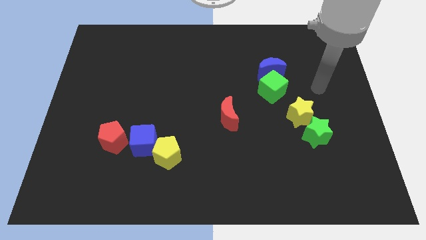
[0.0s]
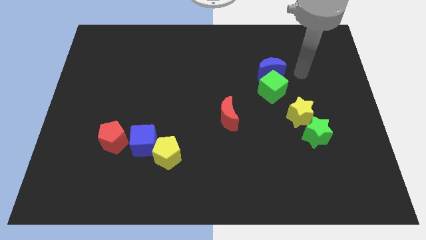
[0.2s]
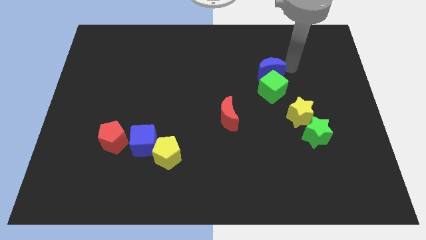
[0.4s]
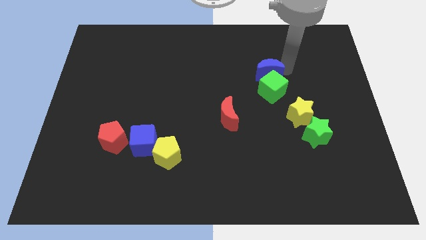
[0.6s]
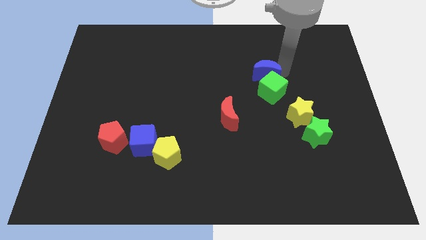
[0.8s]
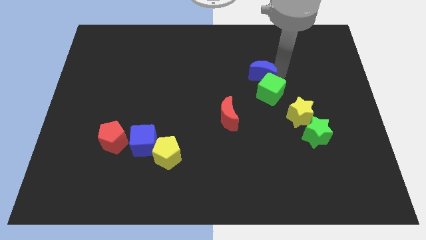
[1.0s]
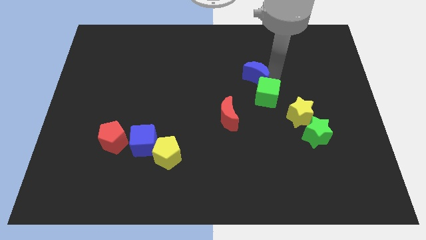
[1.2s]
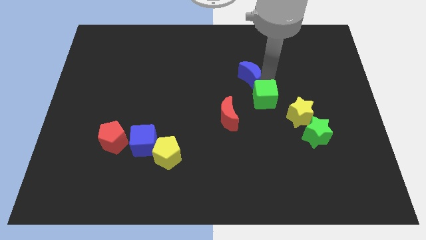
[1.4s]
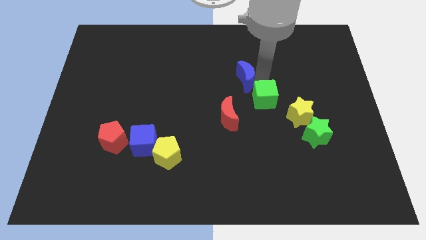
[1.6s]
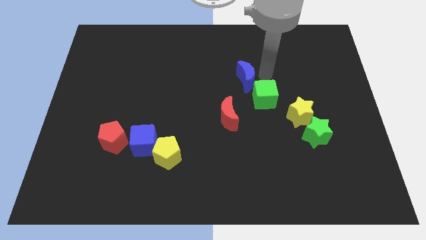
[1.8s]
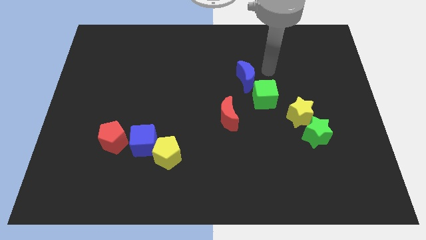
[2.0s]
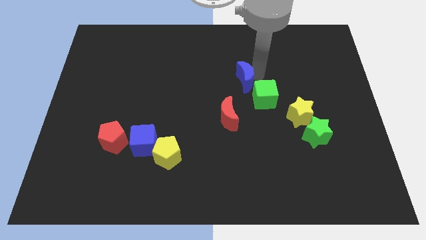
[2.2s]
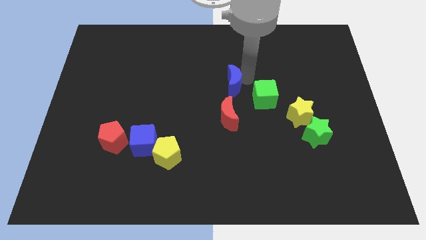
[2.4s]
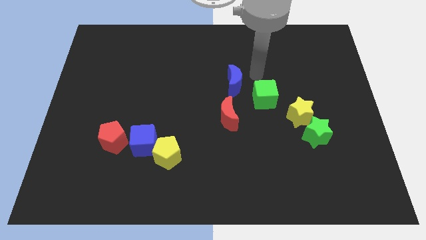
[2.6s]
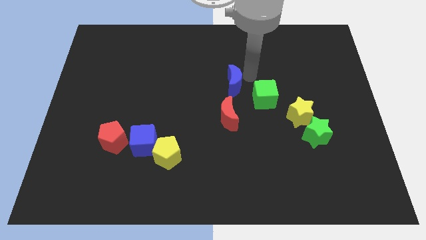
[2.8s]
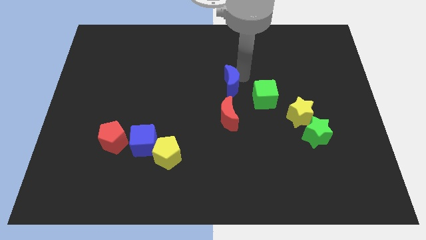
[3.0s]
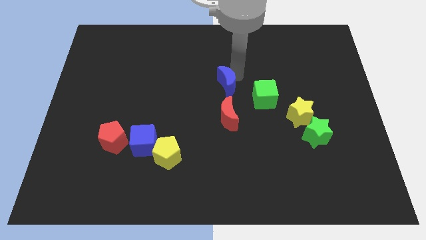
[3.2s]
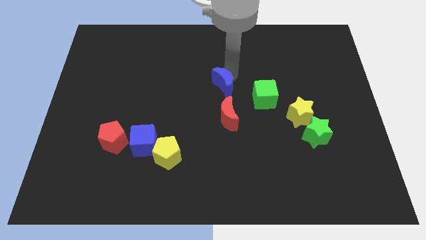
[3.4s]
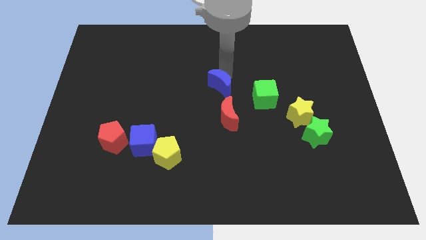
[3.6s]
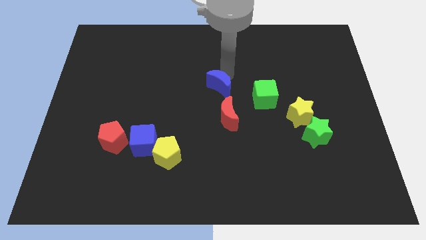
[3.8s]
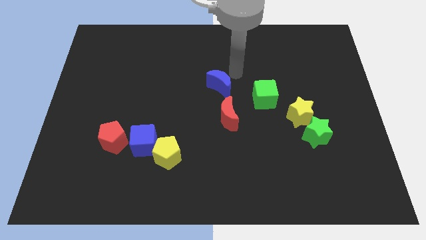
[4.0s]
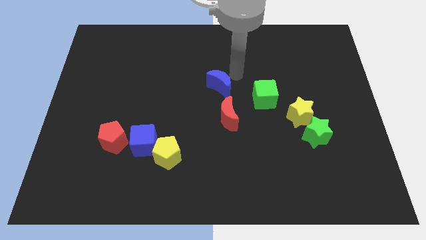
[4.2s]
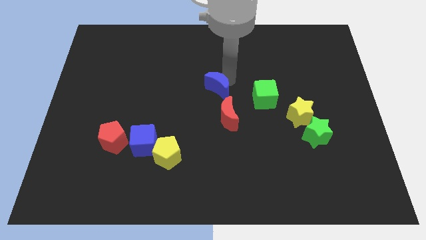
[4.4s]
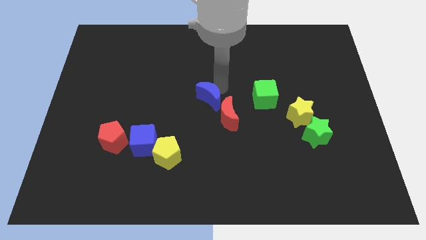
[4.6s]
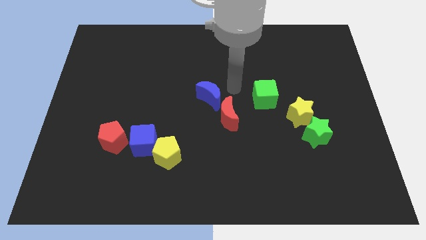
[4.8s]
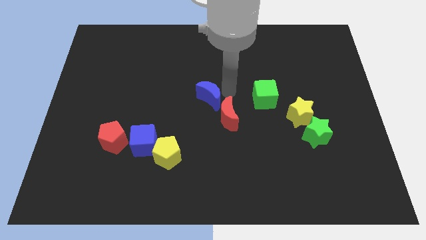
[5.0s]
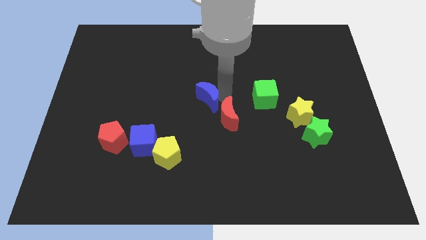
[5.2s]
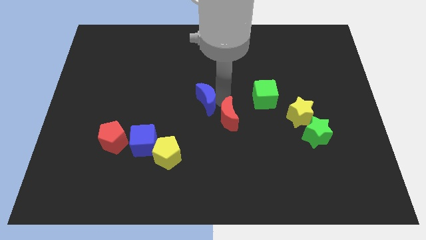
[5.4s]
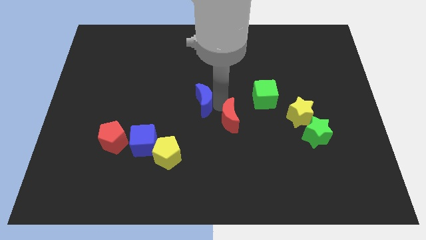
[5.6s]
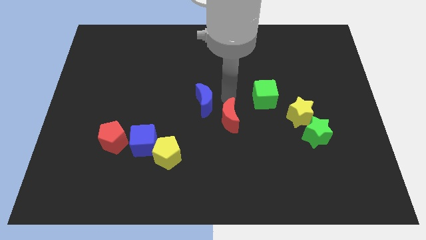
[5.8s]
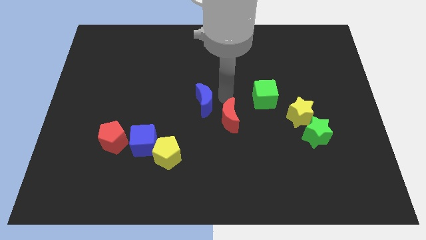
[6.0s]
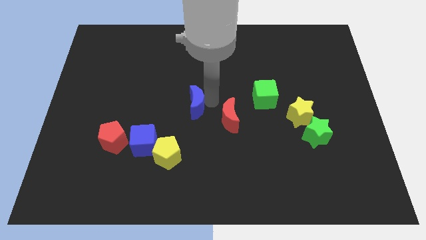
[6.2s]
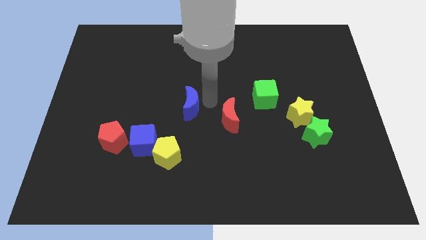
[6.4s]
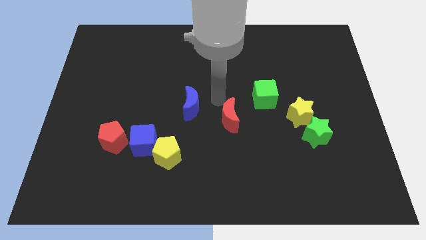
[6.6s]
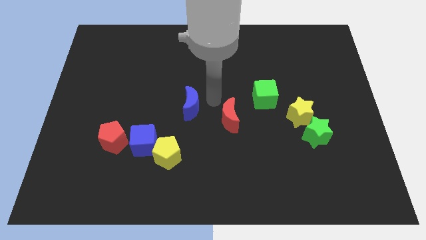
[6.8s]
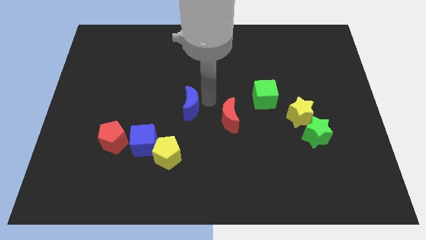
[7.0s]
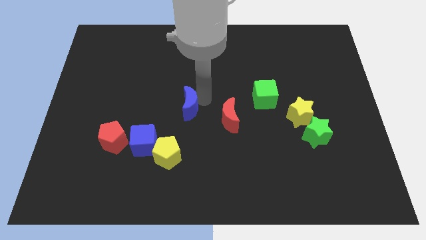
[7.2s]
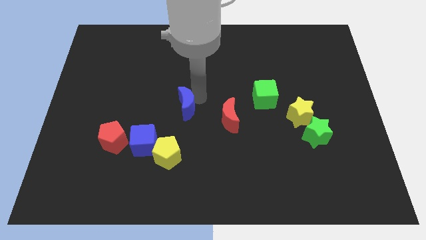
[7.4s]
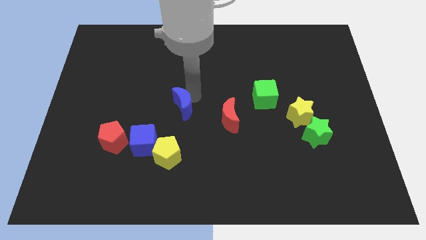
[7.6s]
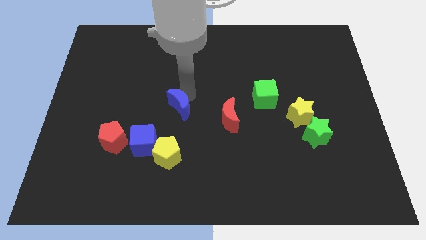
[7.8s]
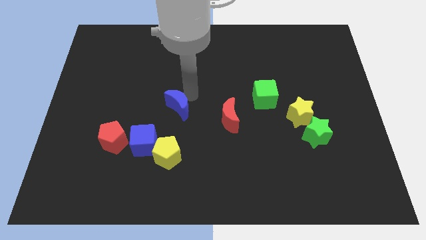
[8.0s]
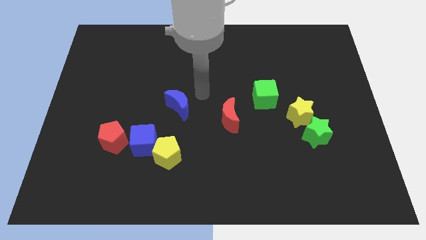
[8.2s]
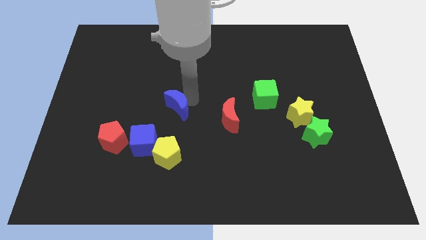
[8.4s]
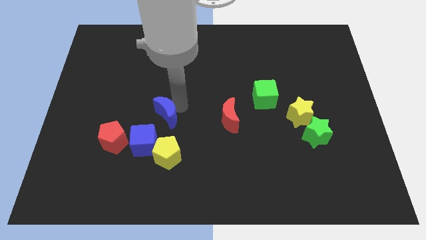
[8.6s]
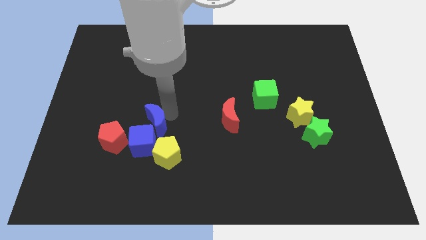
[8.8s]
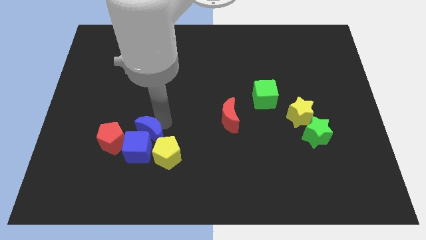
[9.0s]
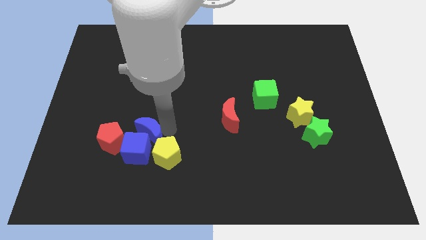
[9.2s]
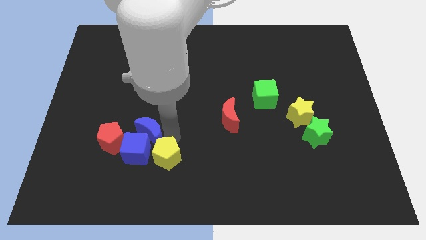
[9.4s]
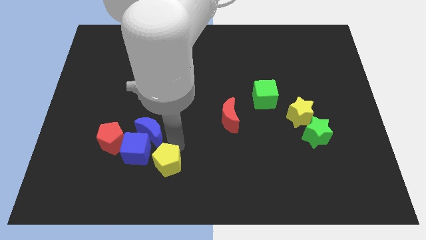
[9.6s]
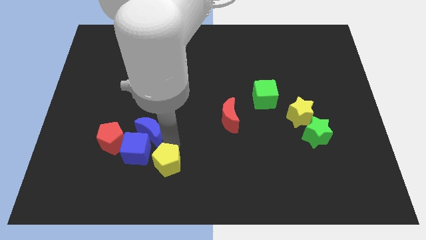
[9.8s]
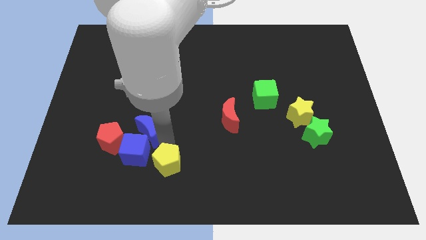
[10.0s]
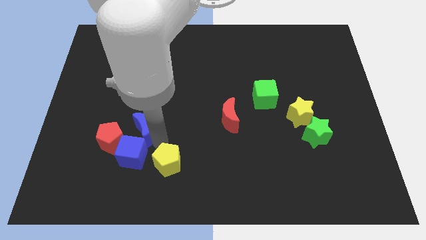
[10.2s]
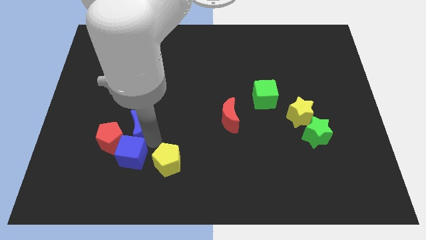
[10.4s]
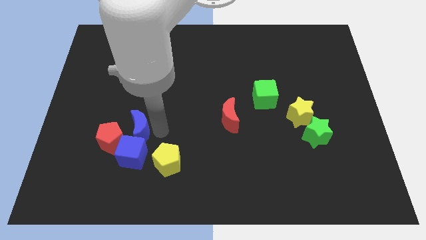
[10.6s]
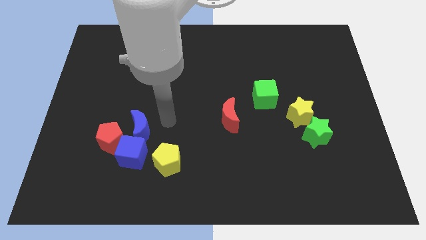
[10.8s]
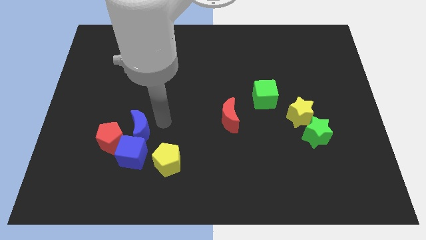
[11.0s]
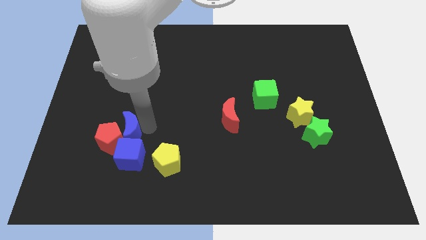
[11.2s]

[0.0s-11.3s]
put the blue moon close to the red pentagon

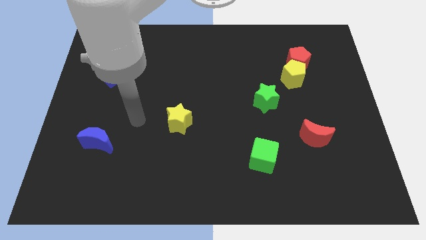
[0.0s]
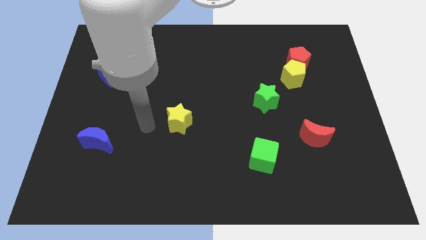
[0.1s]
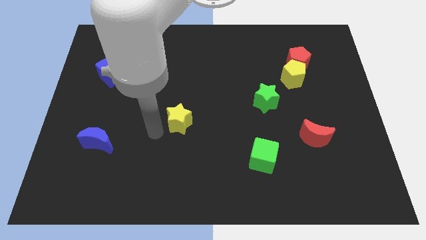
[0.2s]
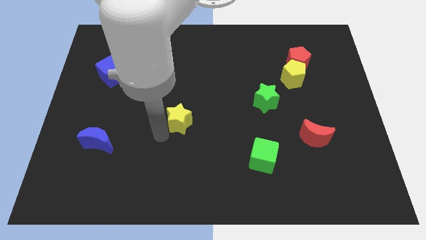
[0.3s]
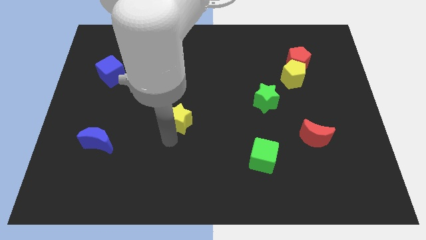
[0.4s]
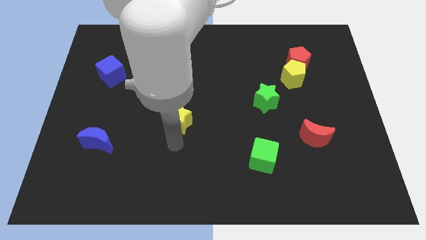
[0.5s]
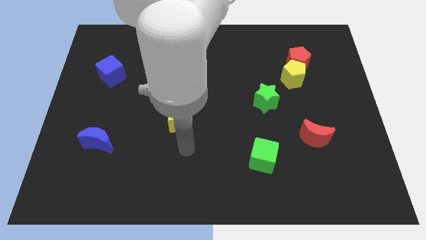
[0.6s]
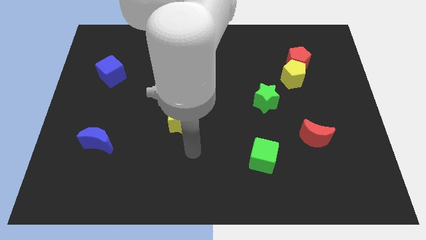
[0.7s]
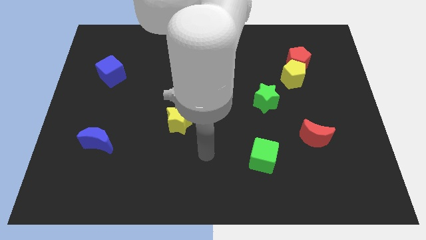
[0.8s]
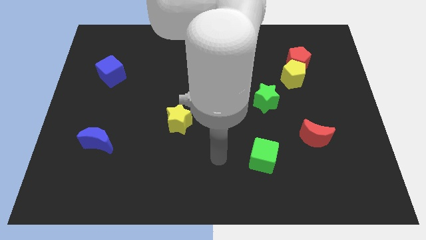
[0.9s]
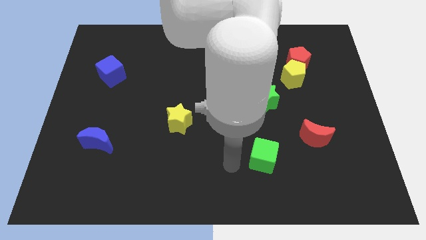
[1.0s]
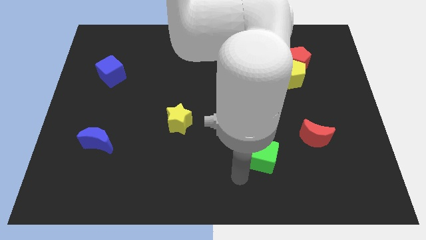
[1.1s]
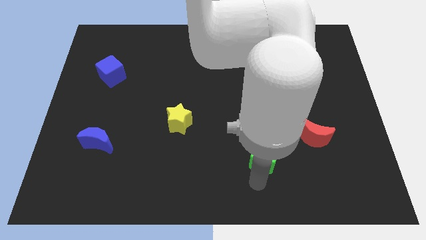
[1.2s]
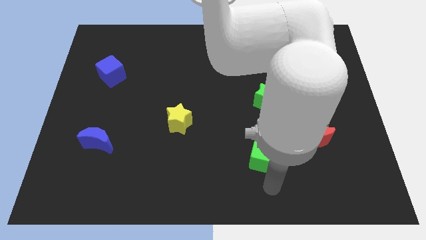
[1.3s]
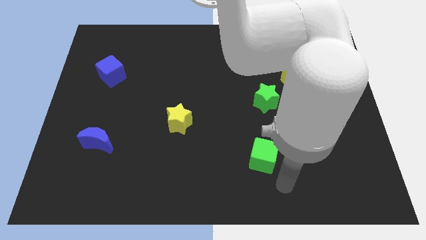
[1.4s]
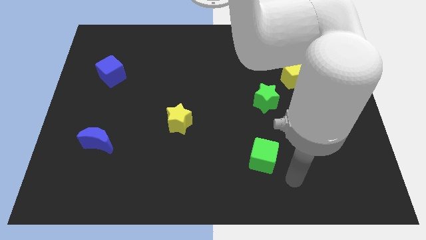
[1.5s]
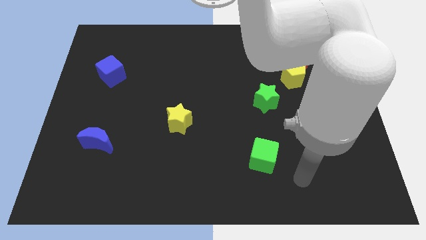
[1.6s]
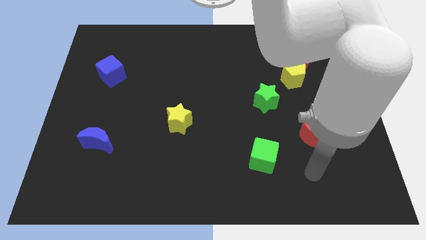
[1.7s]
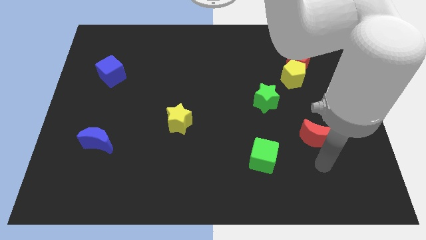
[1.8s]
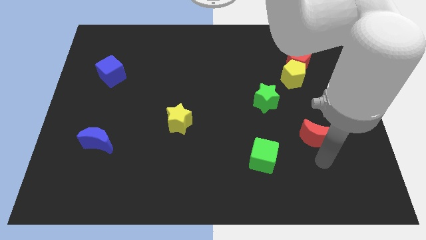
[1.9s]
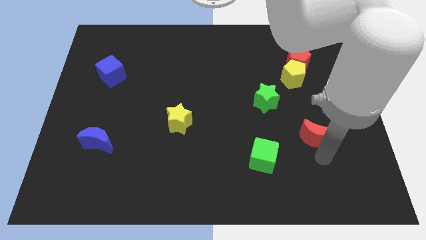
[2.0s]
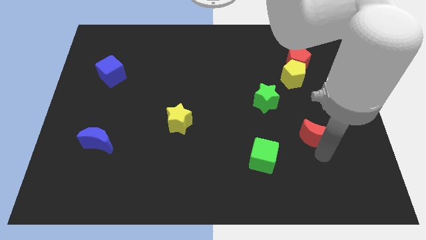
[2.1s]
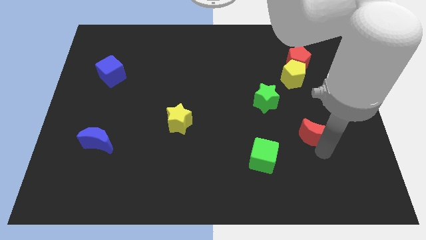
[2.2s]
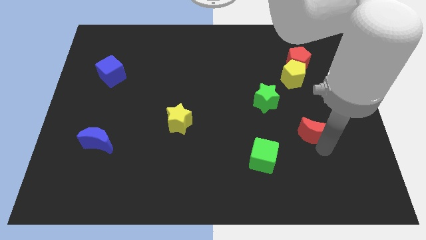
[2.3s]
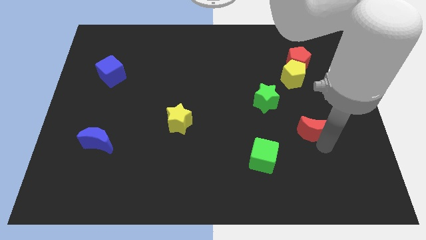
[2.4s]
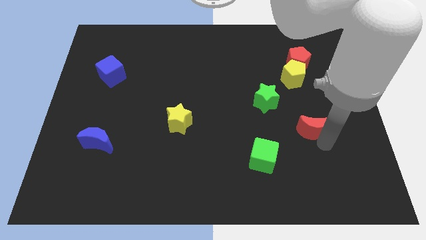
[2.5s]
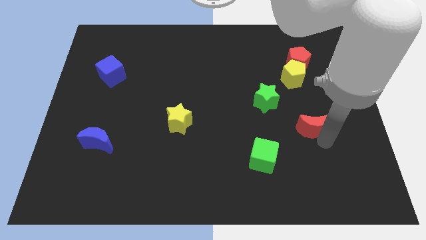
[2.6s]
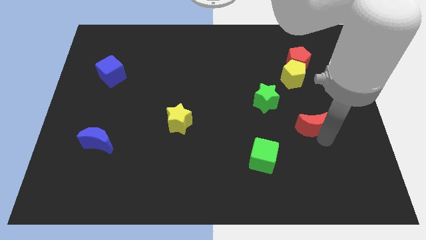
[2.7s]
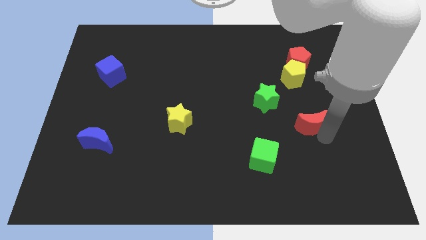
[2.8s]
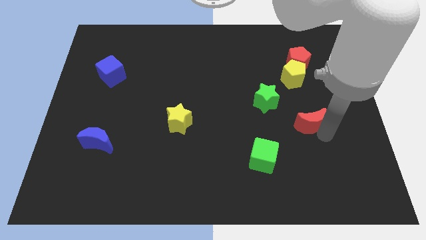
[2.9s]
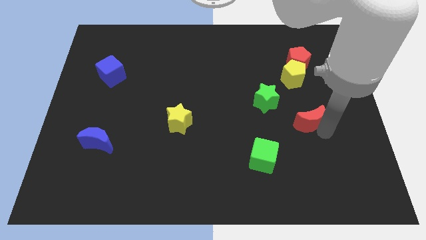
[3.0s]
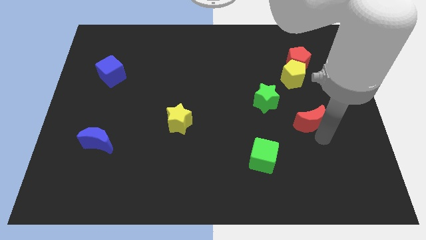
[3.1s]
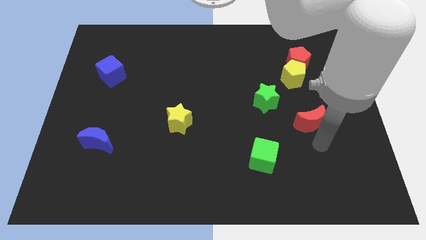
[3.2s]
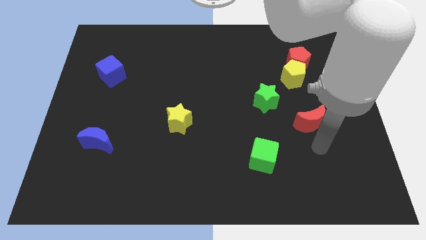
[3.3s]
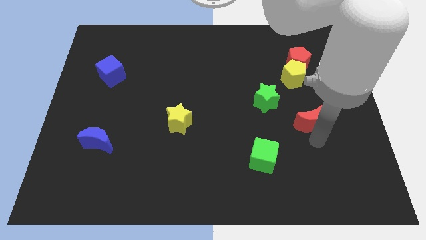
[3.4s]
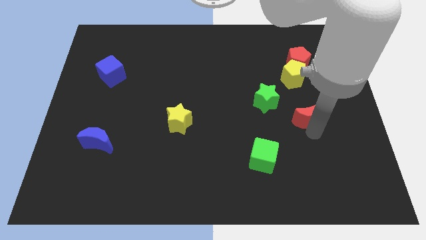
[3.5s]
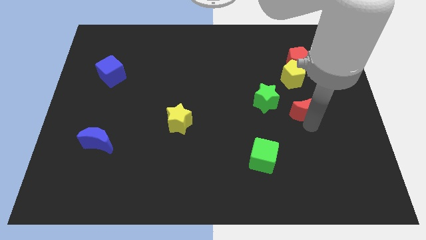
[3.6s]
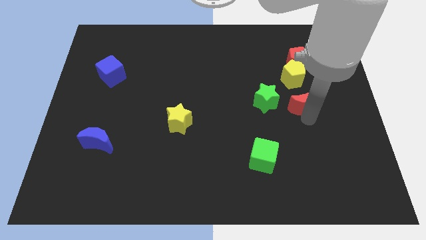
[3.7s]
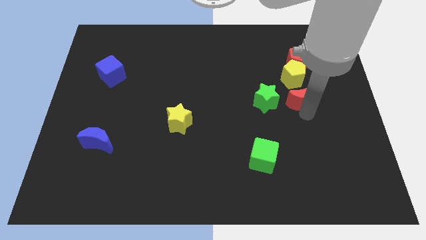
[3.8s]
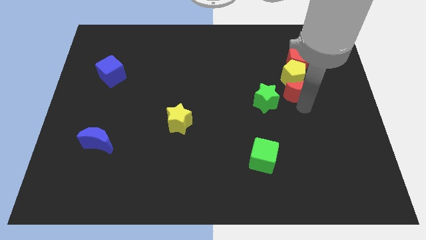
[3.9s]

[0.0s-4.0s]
push the red moon to the yellow pentagon
